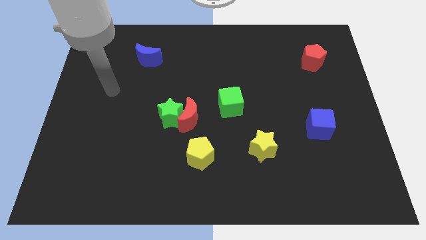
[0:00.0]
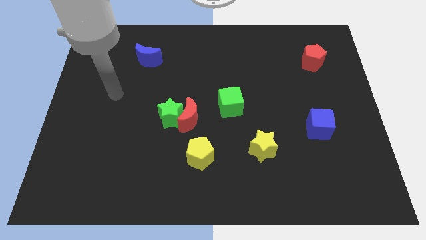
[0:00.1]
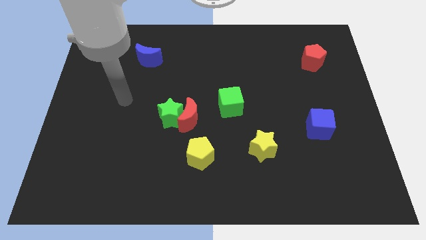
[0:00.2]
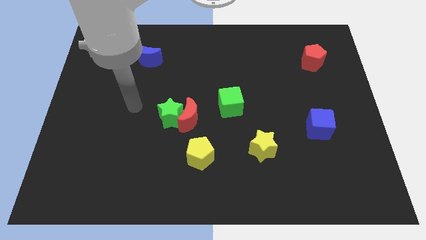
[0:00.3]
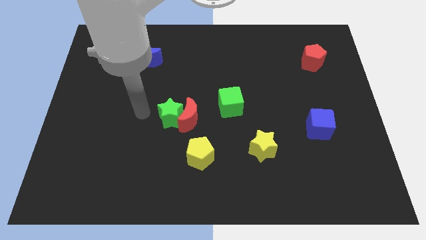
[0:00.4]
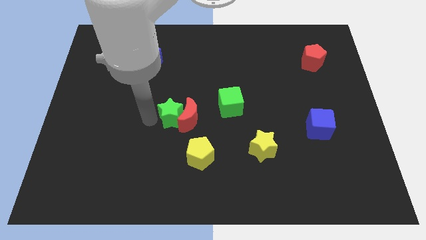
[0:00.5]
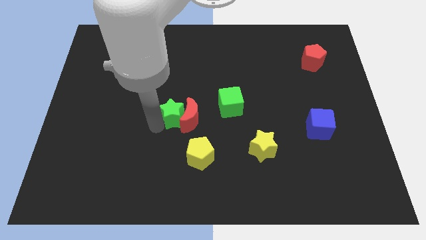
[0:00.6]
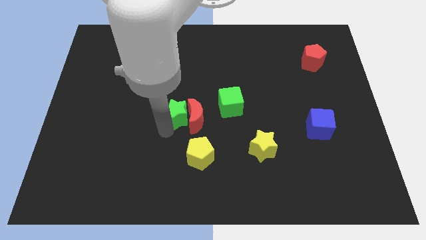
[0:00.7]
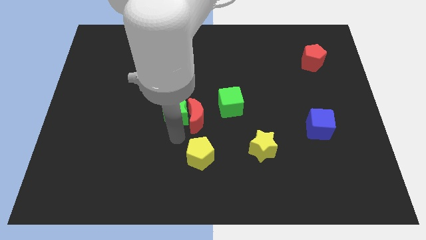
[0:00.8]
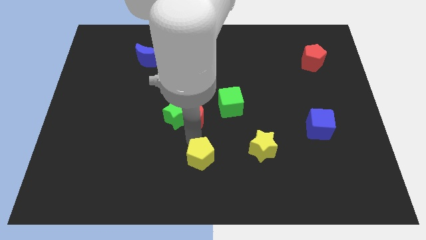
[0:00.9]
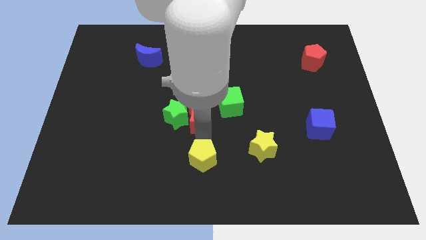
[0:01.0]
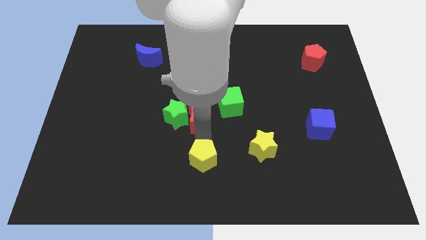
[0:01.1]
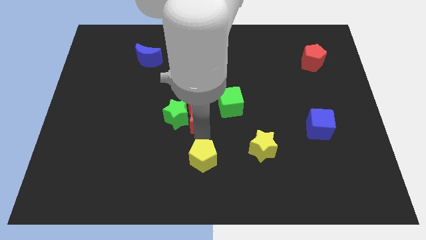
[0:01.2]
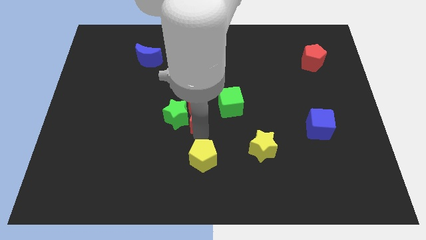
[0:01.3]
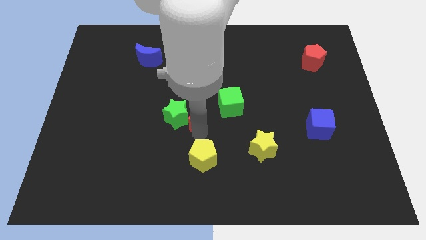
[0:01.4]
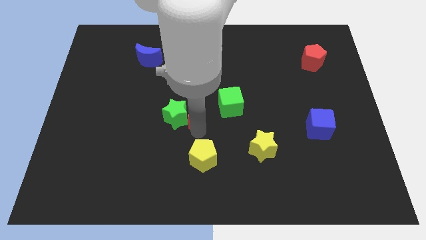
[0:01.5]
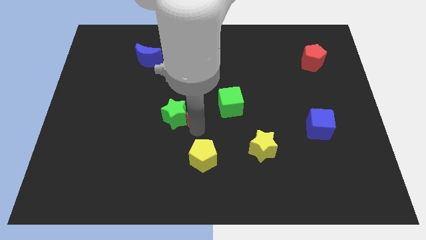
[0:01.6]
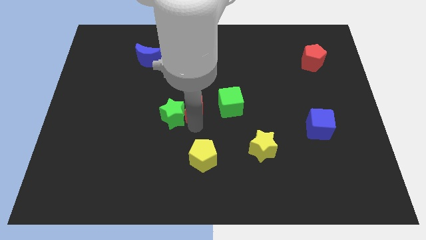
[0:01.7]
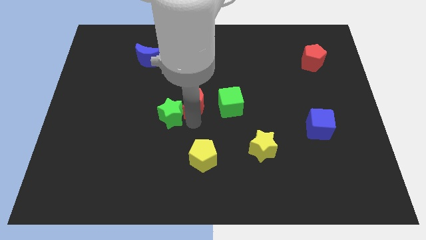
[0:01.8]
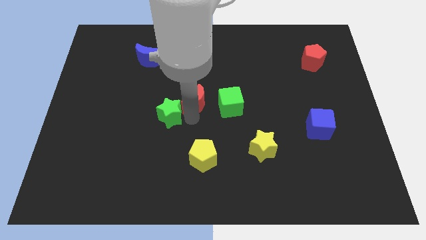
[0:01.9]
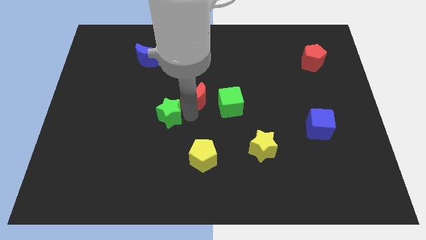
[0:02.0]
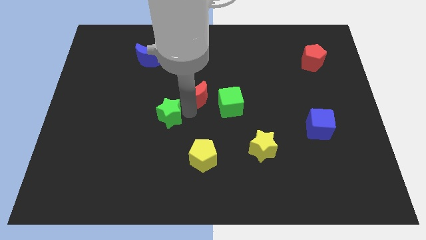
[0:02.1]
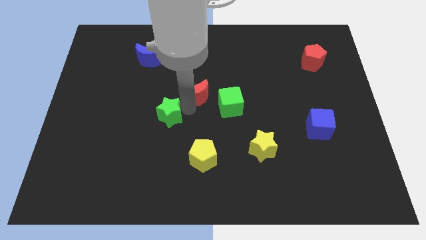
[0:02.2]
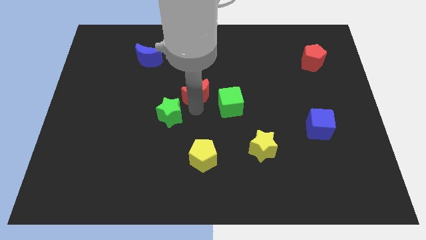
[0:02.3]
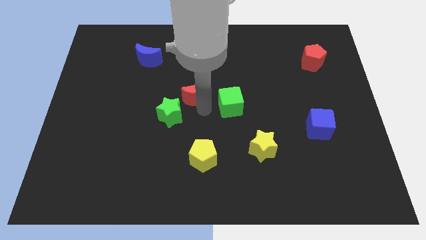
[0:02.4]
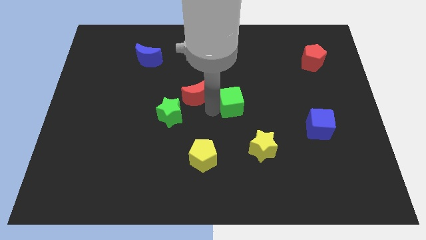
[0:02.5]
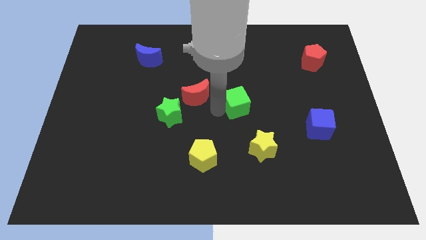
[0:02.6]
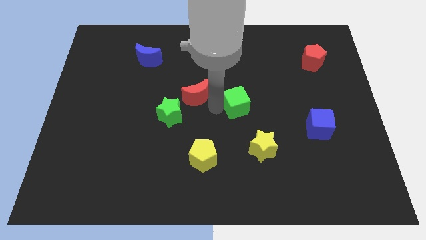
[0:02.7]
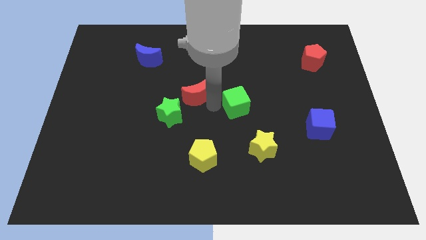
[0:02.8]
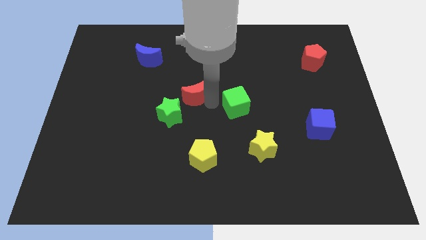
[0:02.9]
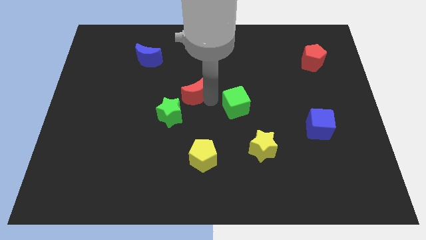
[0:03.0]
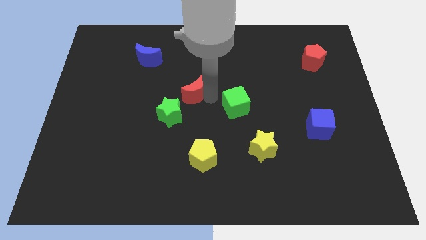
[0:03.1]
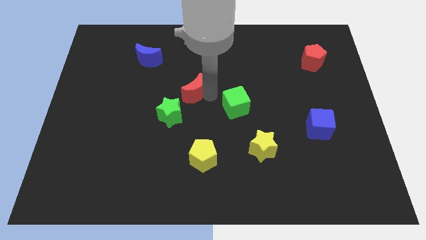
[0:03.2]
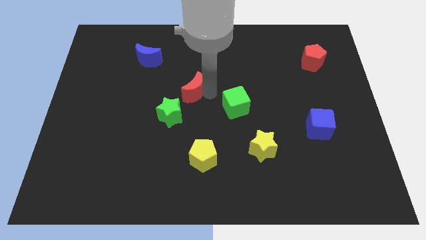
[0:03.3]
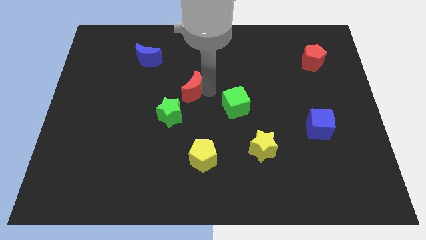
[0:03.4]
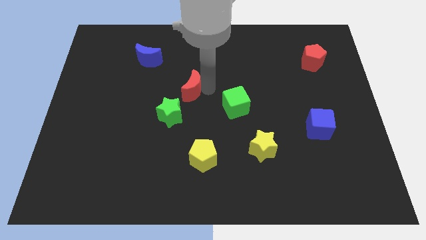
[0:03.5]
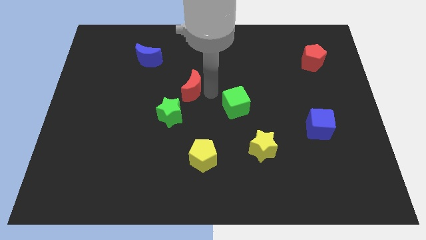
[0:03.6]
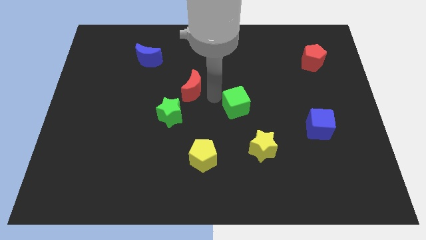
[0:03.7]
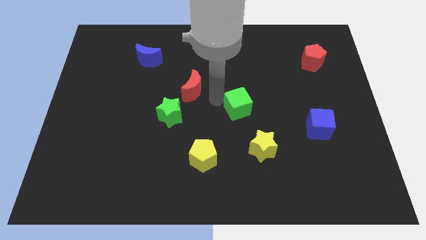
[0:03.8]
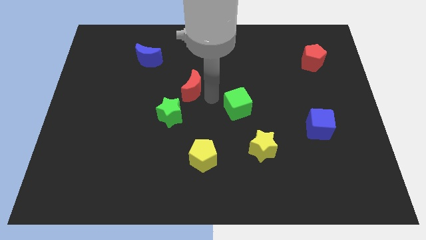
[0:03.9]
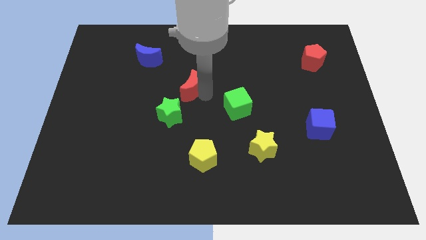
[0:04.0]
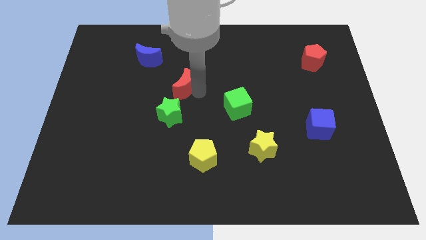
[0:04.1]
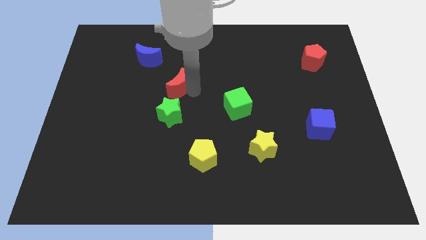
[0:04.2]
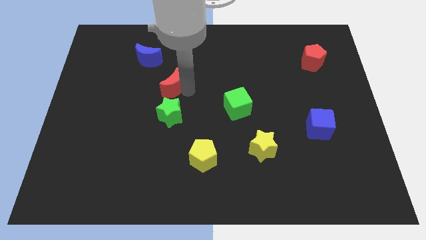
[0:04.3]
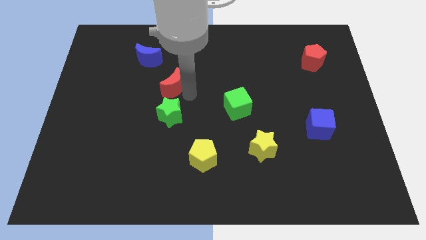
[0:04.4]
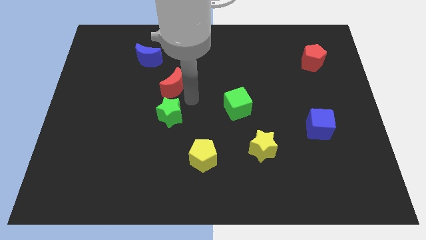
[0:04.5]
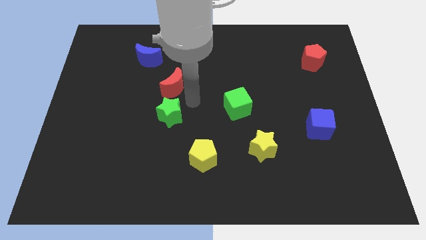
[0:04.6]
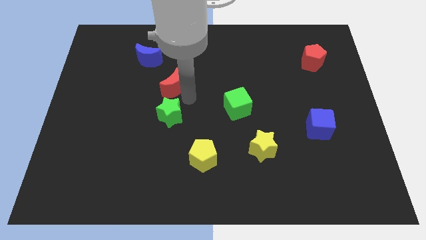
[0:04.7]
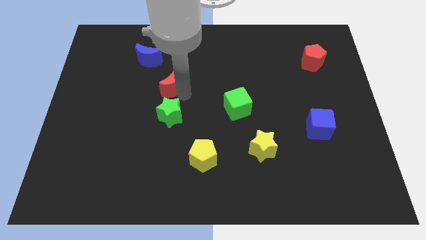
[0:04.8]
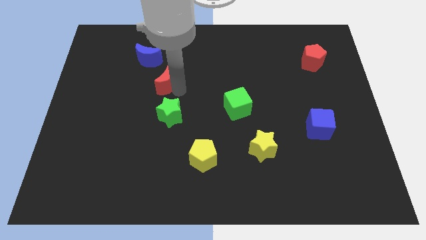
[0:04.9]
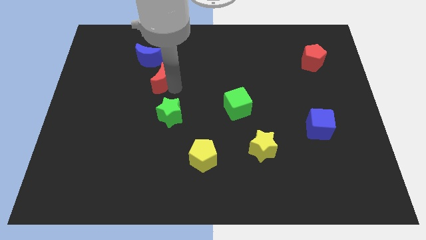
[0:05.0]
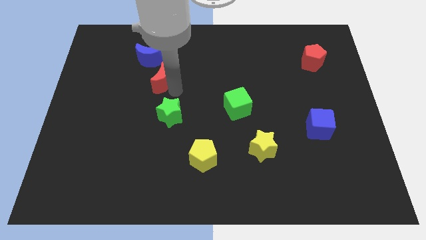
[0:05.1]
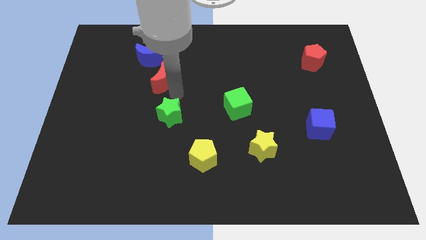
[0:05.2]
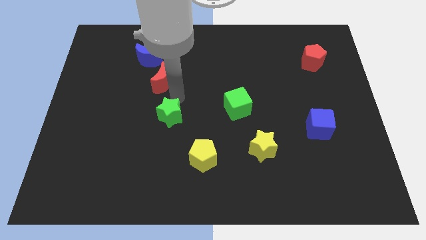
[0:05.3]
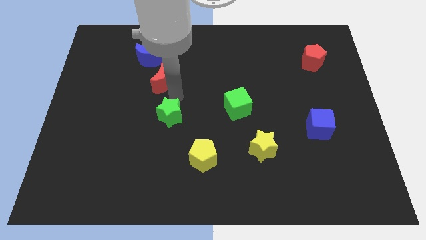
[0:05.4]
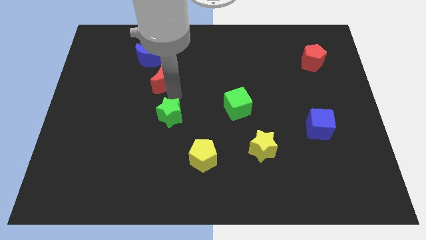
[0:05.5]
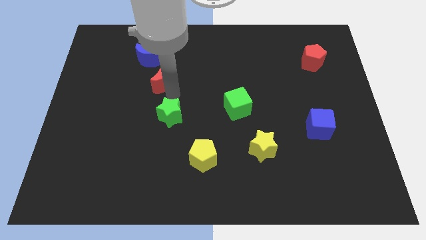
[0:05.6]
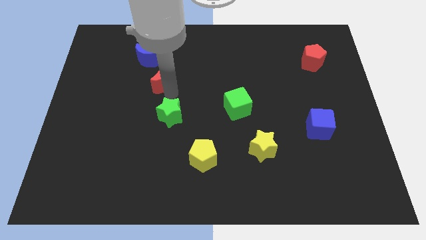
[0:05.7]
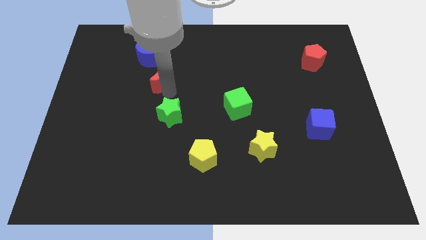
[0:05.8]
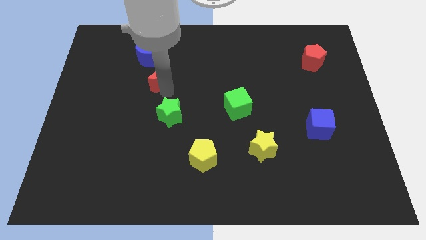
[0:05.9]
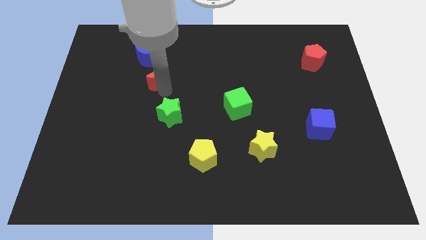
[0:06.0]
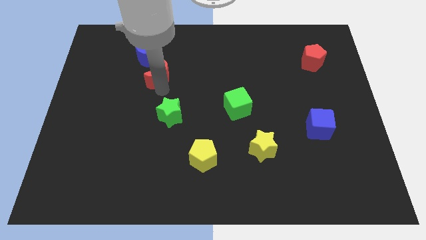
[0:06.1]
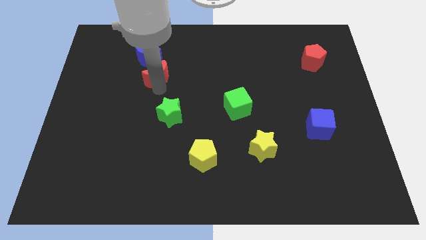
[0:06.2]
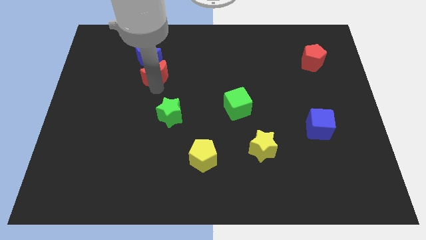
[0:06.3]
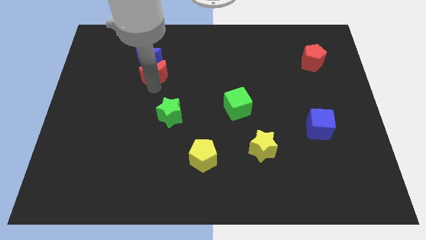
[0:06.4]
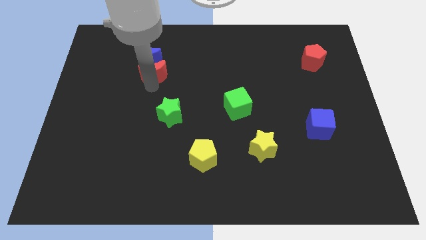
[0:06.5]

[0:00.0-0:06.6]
put the red moon close to the blue moon
